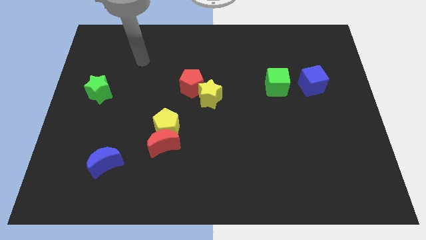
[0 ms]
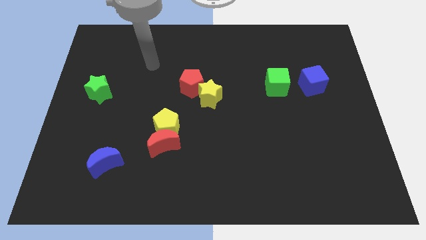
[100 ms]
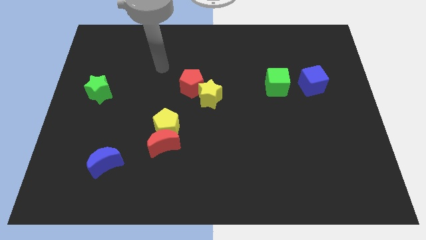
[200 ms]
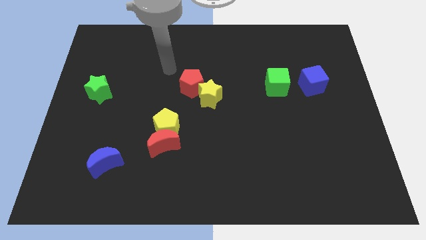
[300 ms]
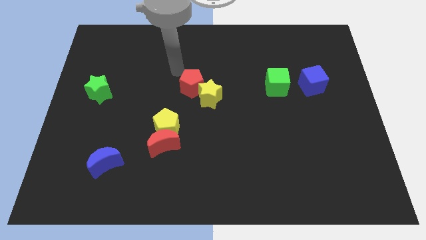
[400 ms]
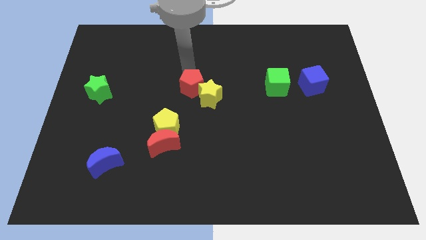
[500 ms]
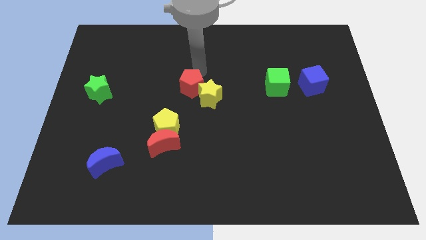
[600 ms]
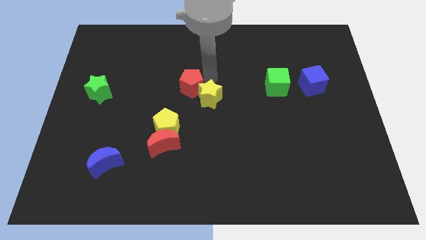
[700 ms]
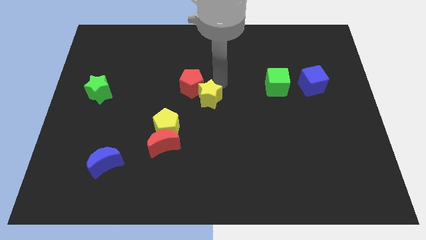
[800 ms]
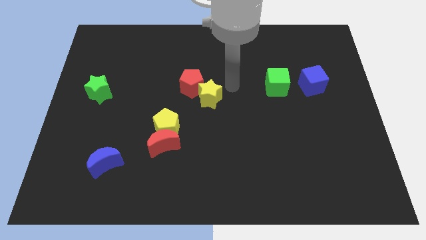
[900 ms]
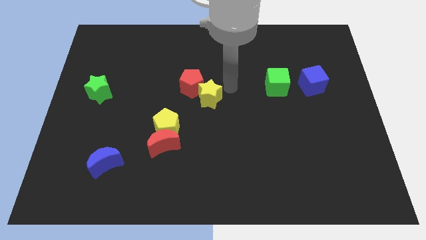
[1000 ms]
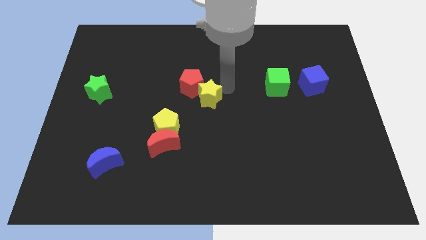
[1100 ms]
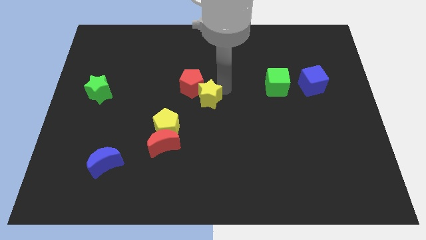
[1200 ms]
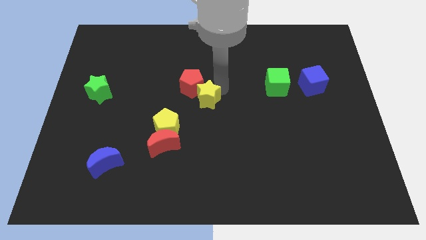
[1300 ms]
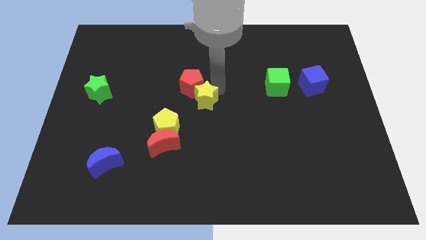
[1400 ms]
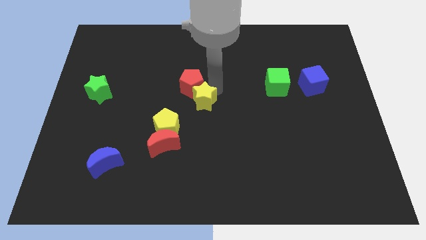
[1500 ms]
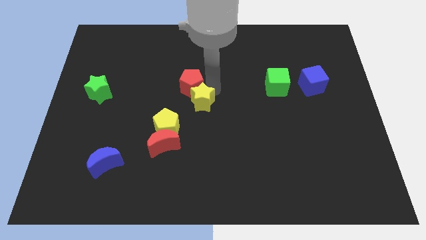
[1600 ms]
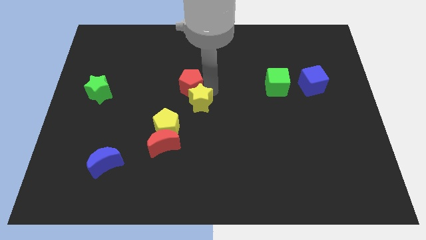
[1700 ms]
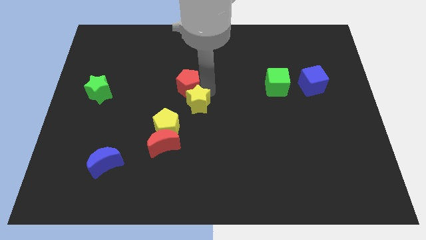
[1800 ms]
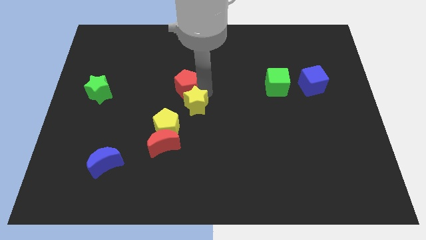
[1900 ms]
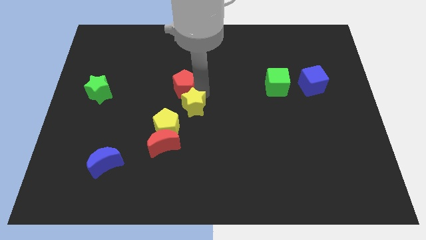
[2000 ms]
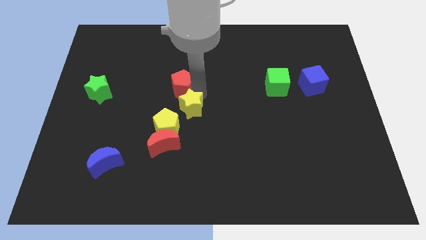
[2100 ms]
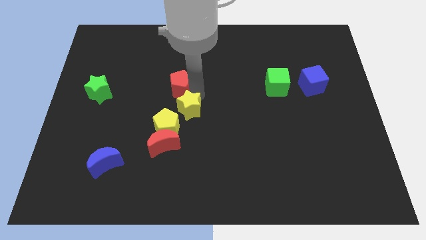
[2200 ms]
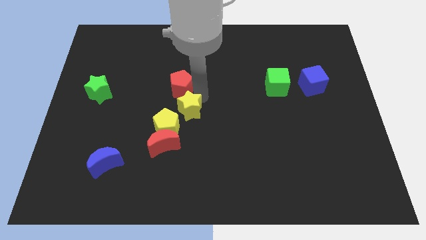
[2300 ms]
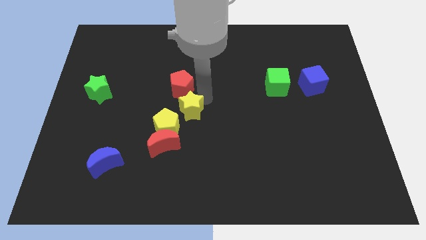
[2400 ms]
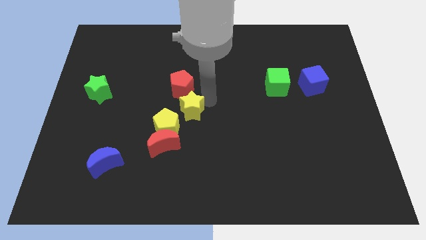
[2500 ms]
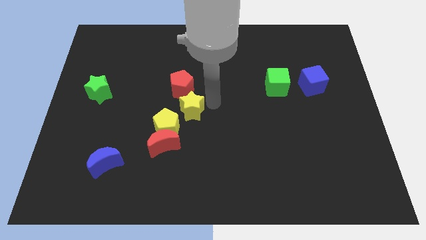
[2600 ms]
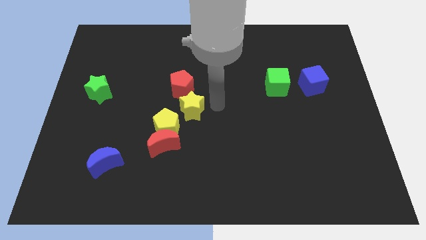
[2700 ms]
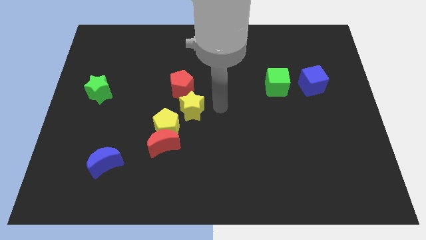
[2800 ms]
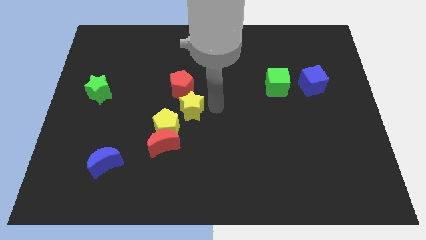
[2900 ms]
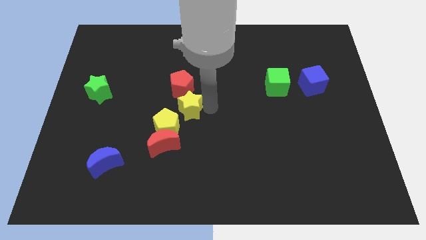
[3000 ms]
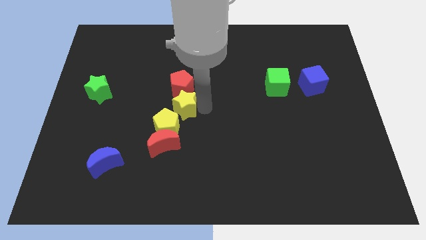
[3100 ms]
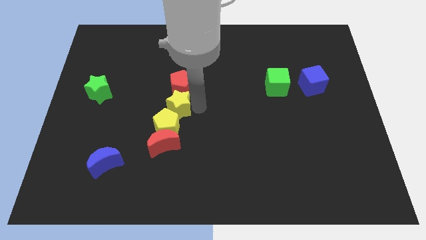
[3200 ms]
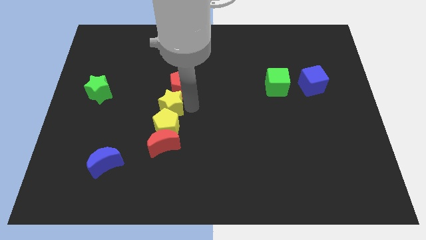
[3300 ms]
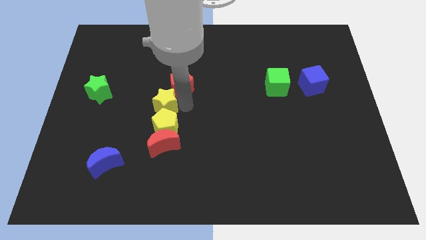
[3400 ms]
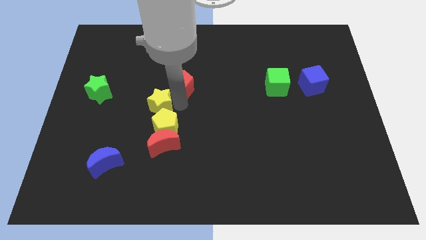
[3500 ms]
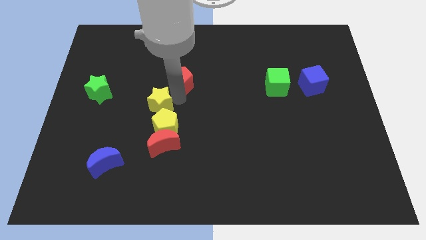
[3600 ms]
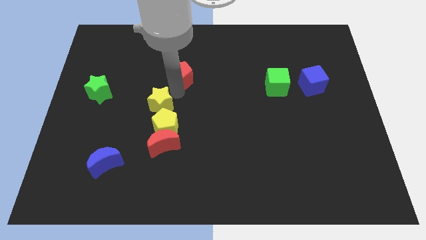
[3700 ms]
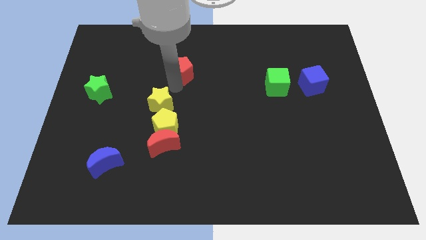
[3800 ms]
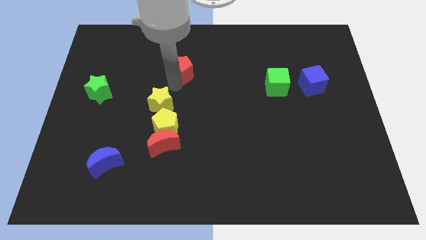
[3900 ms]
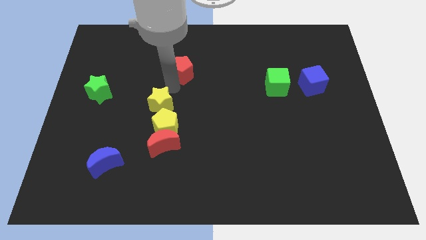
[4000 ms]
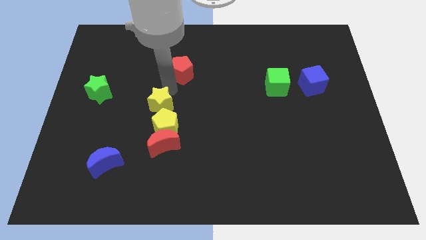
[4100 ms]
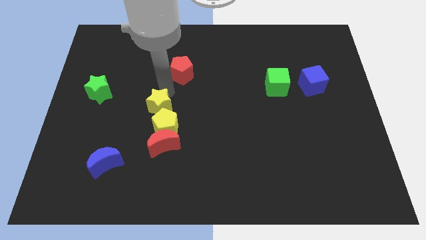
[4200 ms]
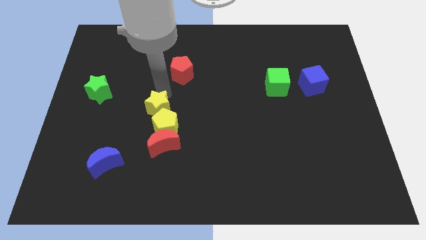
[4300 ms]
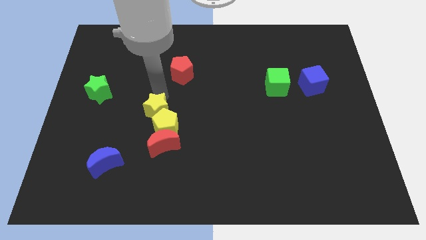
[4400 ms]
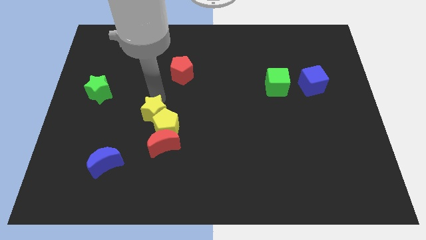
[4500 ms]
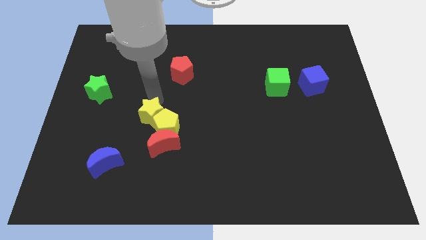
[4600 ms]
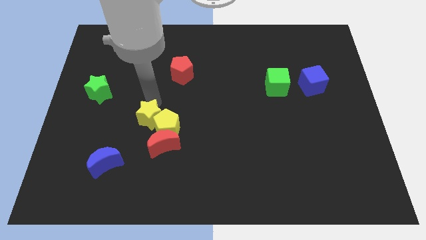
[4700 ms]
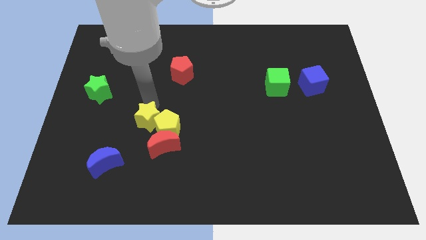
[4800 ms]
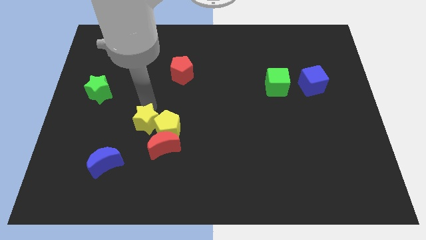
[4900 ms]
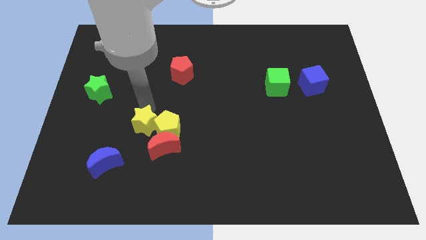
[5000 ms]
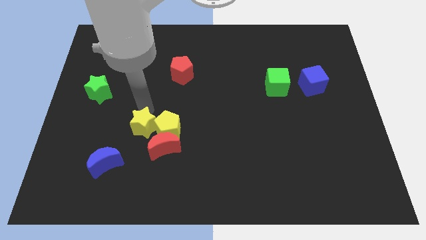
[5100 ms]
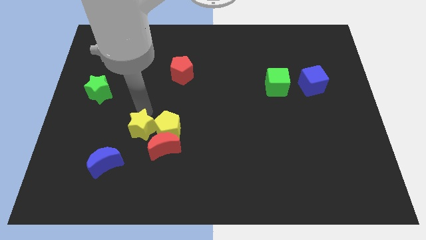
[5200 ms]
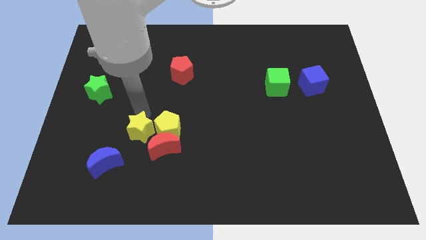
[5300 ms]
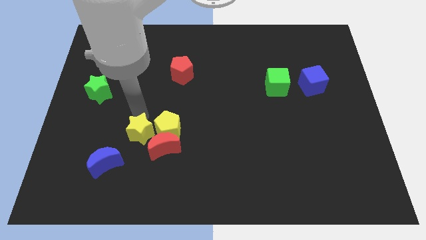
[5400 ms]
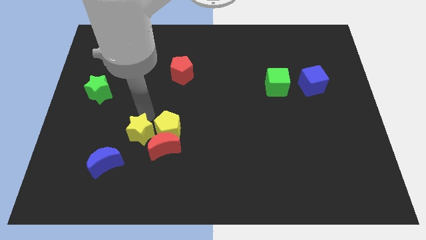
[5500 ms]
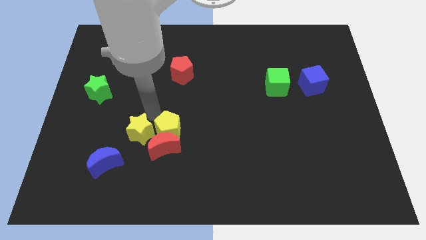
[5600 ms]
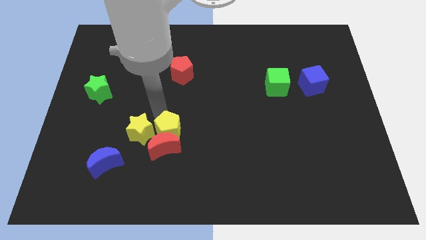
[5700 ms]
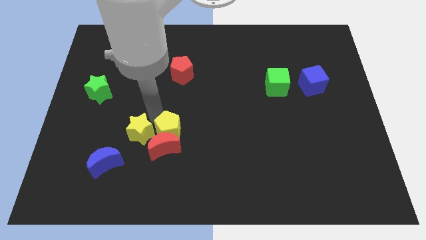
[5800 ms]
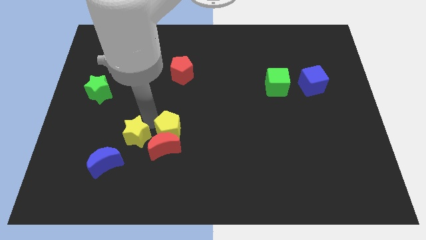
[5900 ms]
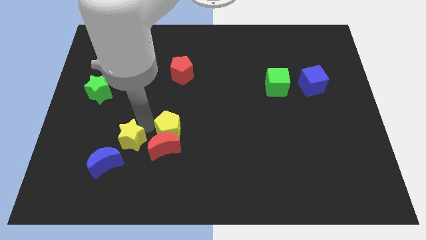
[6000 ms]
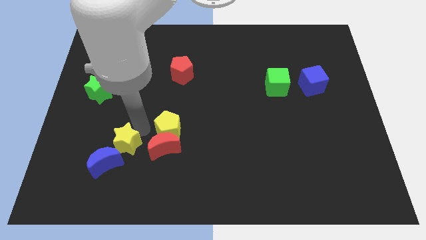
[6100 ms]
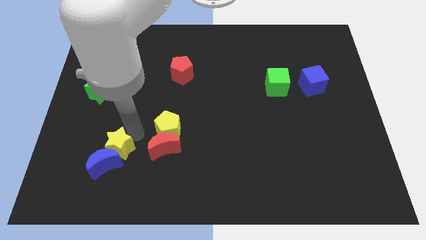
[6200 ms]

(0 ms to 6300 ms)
put the yellow star towards the blue moon
